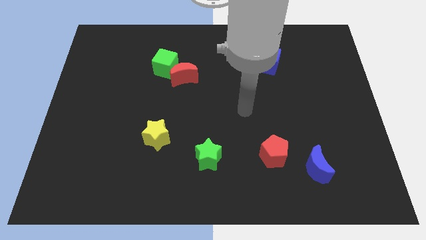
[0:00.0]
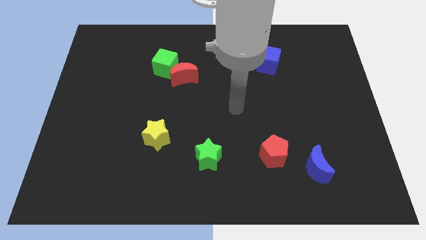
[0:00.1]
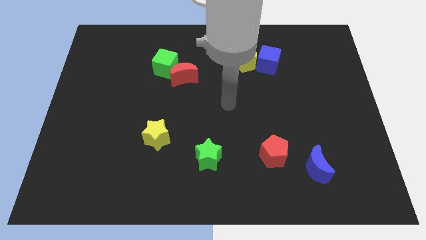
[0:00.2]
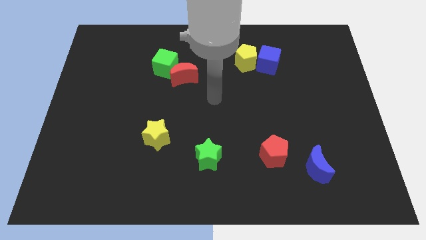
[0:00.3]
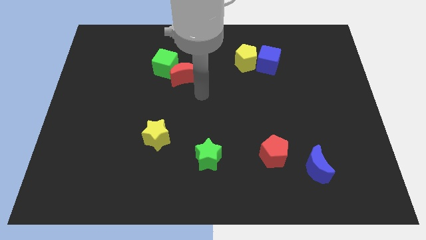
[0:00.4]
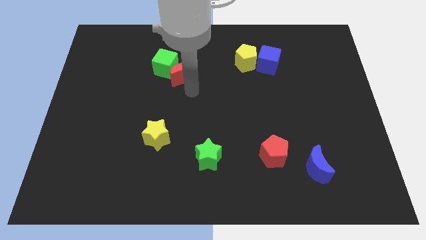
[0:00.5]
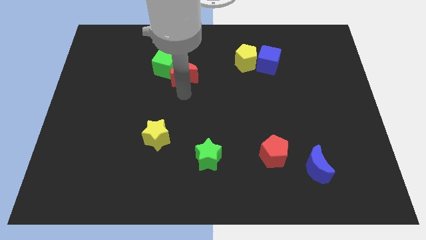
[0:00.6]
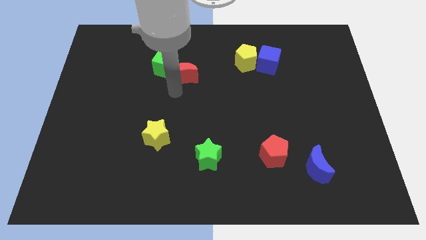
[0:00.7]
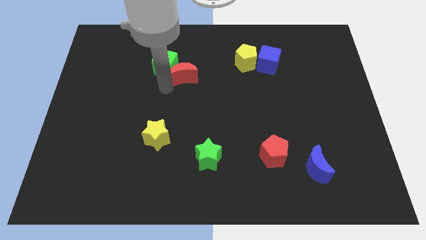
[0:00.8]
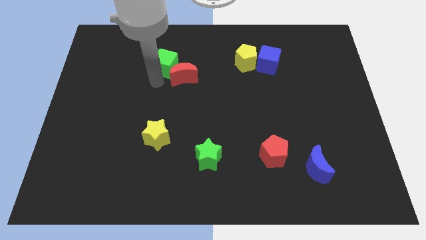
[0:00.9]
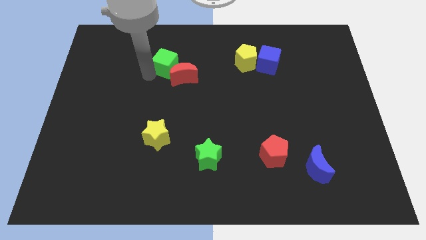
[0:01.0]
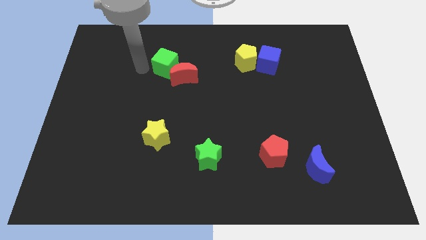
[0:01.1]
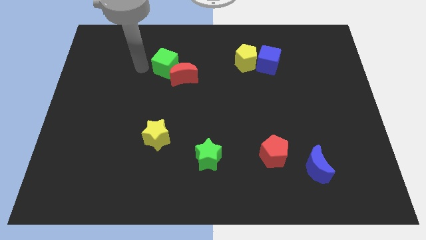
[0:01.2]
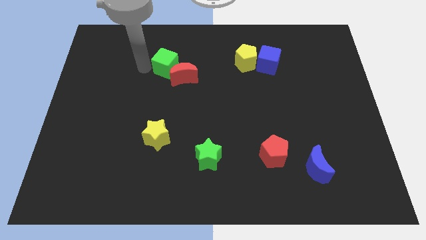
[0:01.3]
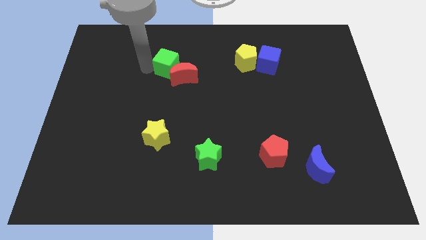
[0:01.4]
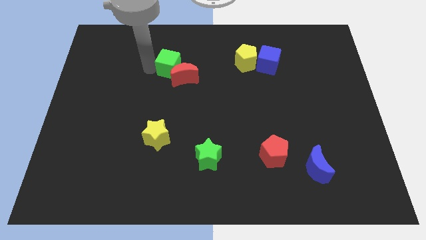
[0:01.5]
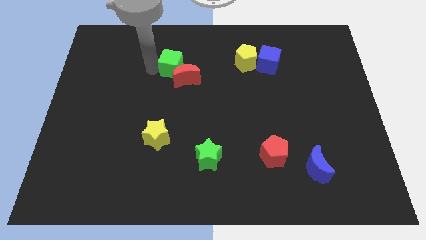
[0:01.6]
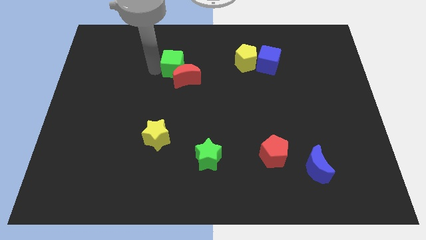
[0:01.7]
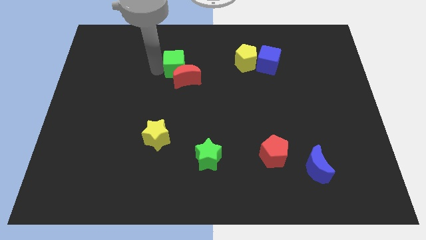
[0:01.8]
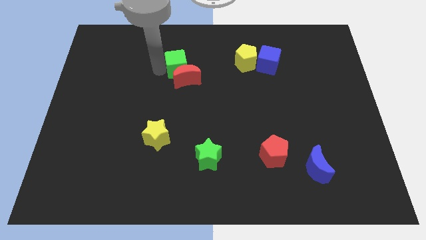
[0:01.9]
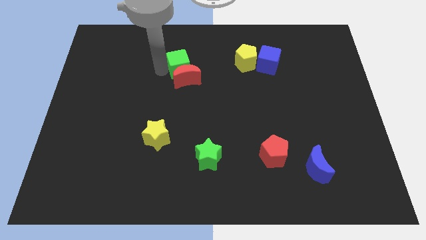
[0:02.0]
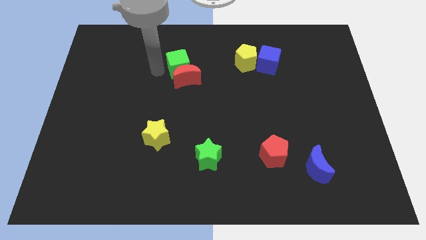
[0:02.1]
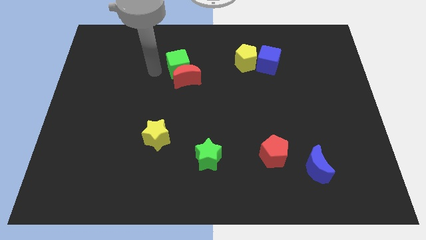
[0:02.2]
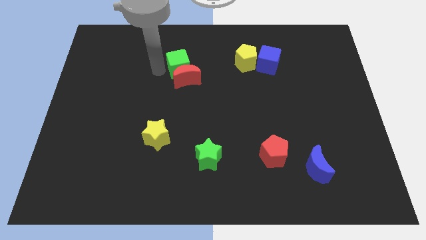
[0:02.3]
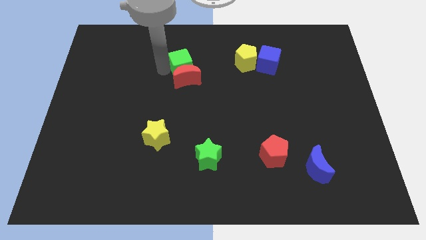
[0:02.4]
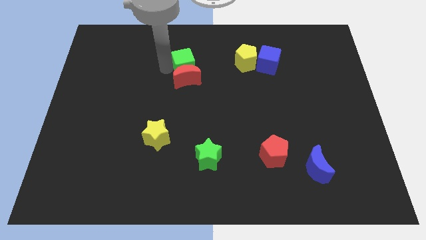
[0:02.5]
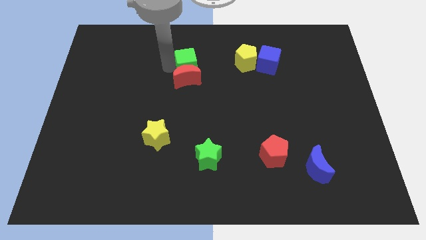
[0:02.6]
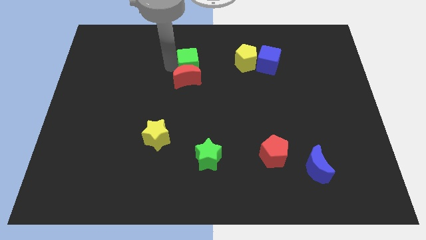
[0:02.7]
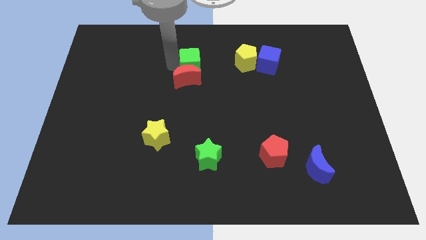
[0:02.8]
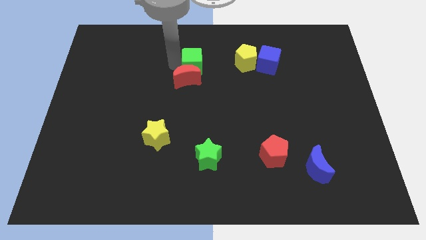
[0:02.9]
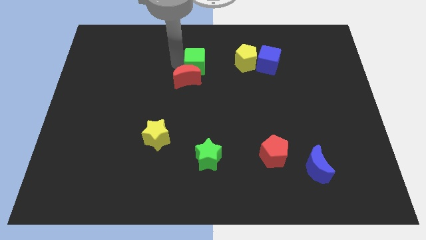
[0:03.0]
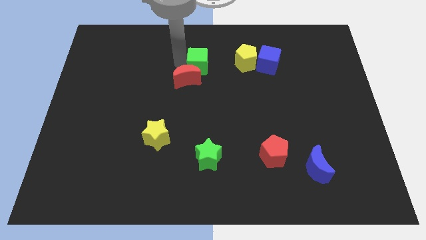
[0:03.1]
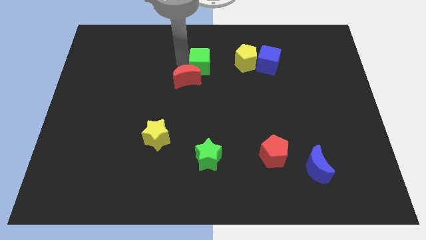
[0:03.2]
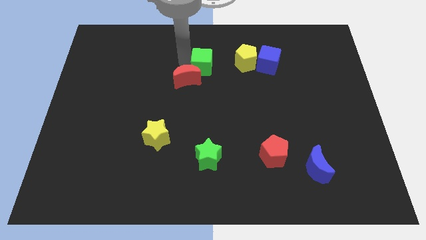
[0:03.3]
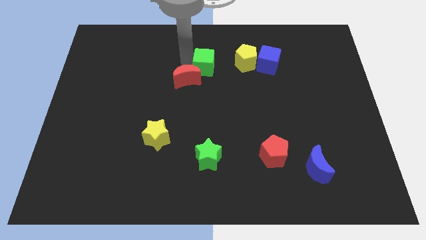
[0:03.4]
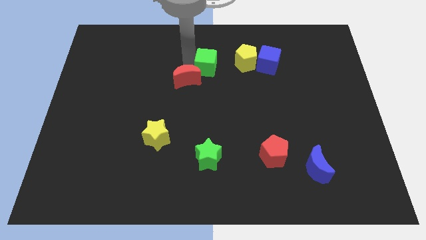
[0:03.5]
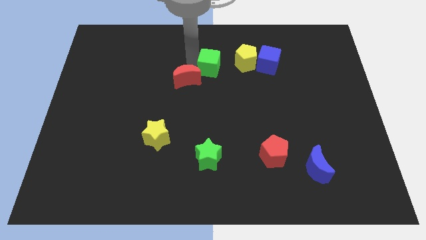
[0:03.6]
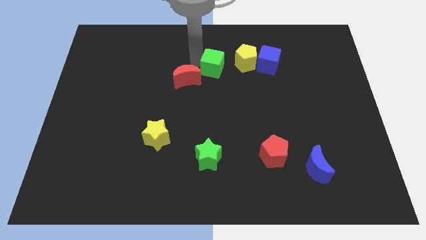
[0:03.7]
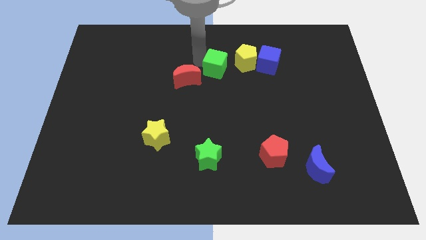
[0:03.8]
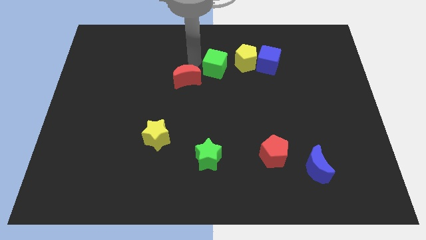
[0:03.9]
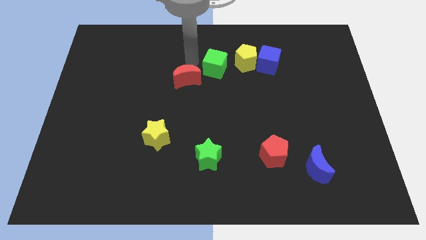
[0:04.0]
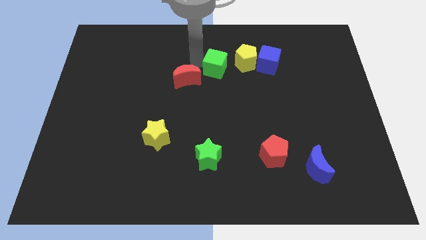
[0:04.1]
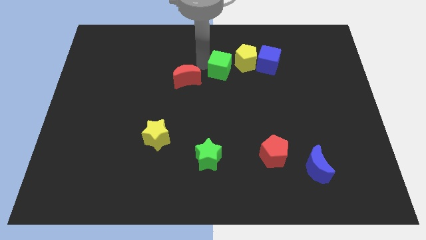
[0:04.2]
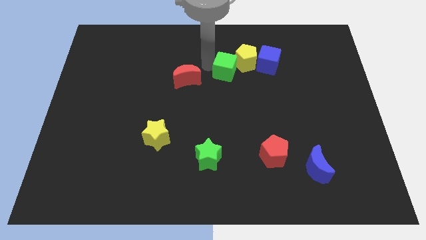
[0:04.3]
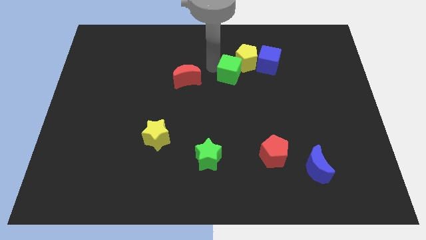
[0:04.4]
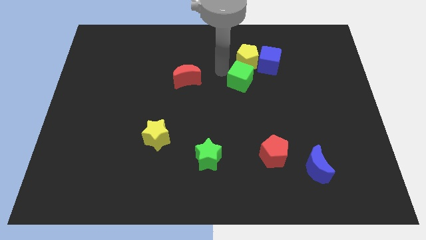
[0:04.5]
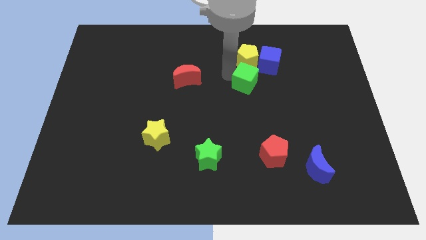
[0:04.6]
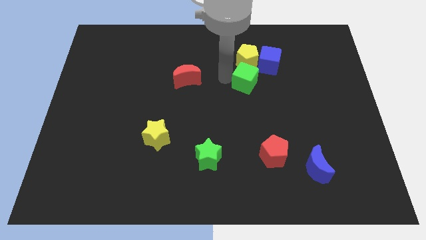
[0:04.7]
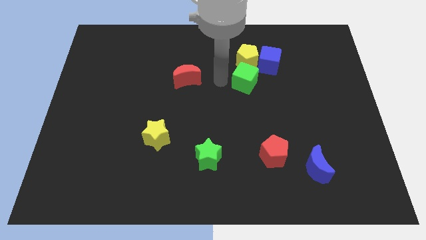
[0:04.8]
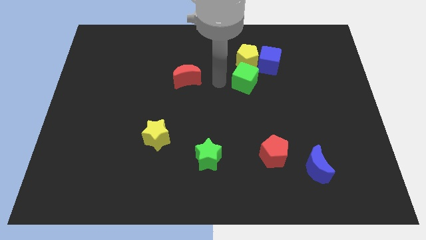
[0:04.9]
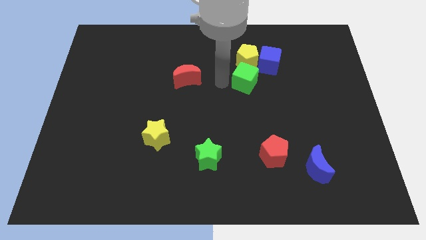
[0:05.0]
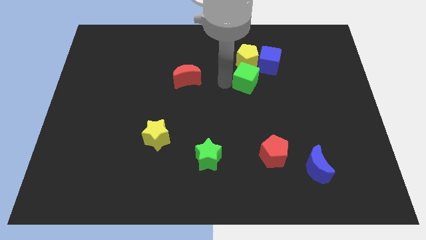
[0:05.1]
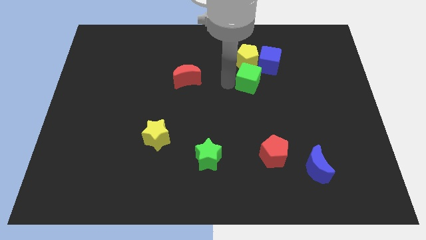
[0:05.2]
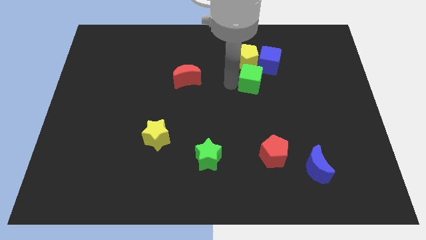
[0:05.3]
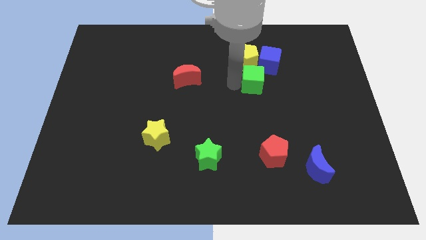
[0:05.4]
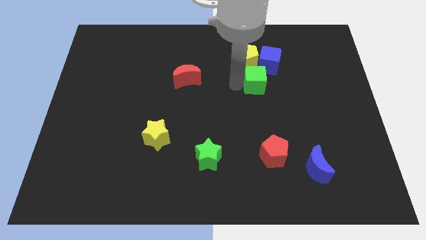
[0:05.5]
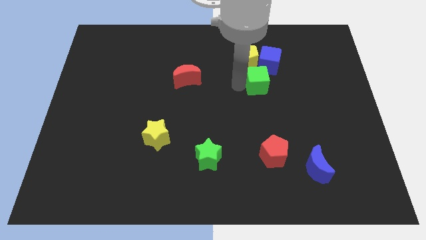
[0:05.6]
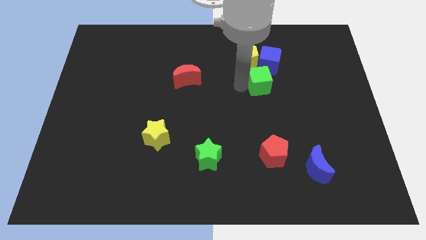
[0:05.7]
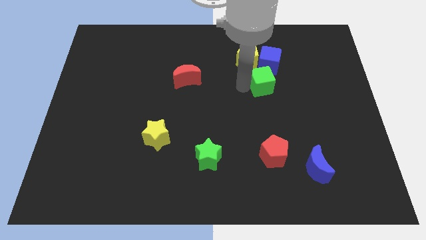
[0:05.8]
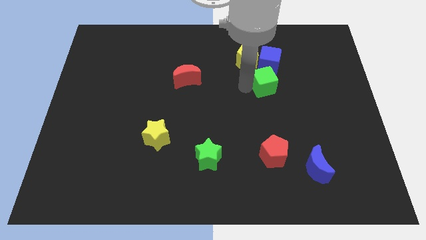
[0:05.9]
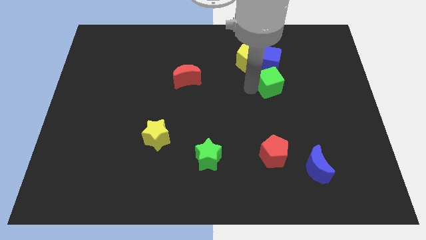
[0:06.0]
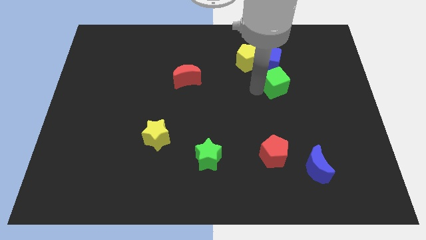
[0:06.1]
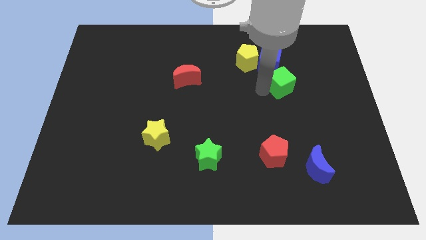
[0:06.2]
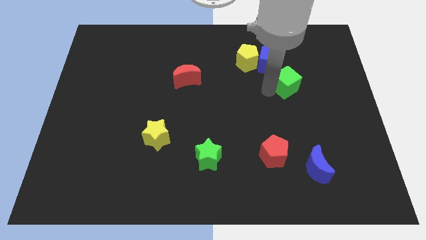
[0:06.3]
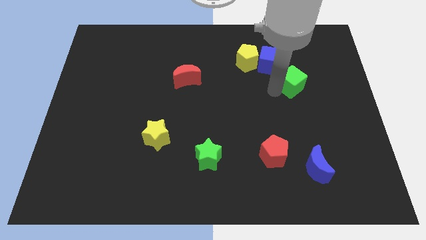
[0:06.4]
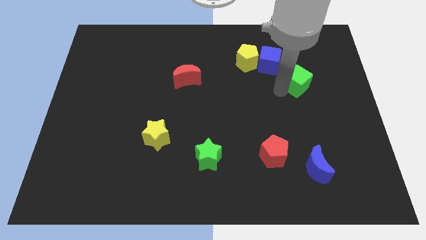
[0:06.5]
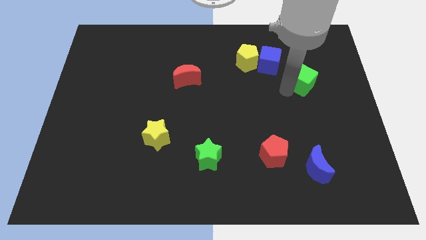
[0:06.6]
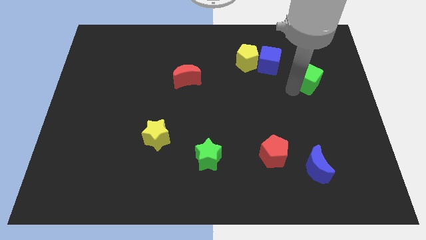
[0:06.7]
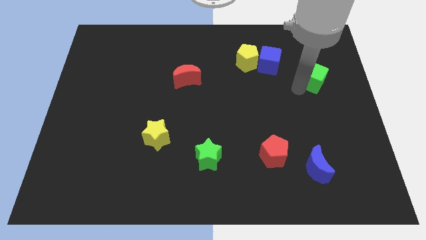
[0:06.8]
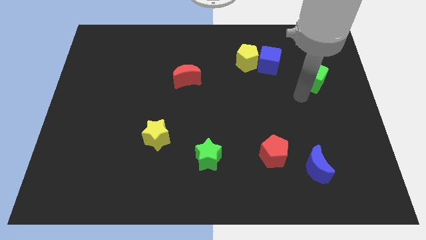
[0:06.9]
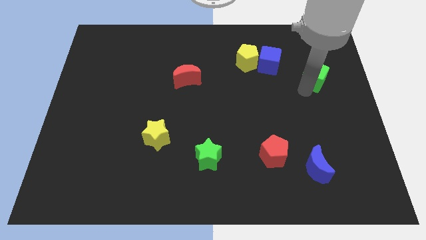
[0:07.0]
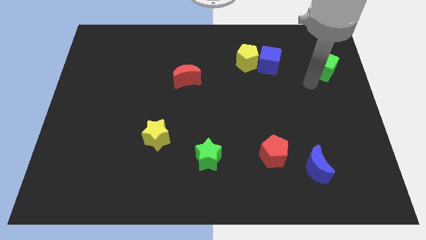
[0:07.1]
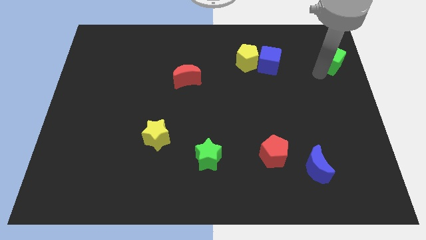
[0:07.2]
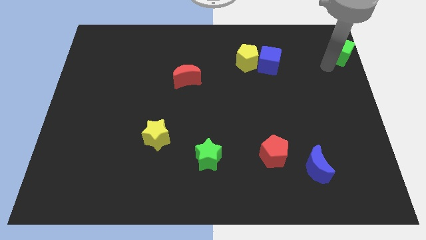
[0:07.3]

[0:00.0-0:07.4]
push the green cube to the top right corner
